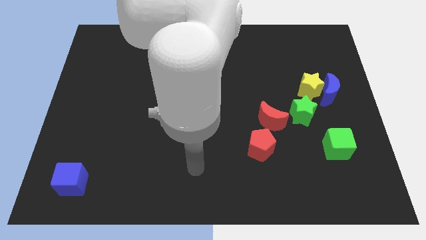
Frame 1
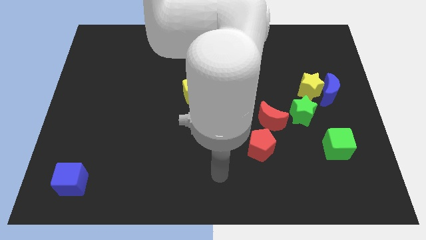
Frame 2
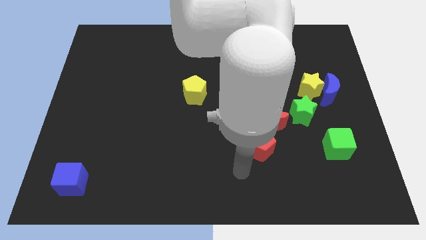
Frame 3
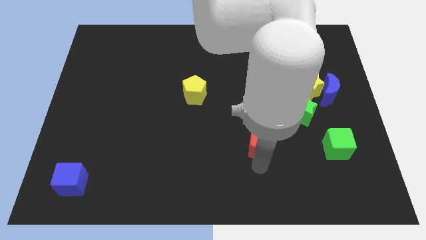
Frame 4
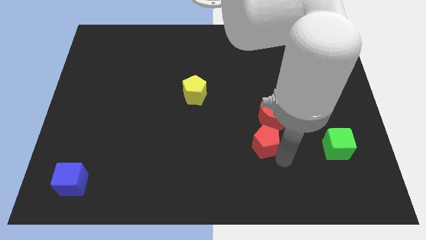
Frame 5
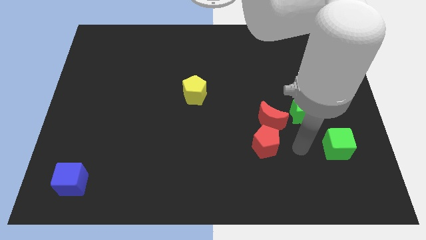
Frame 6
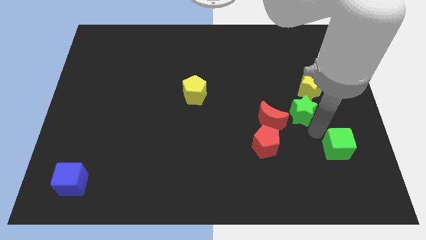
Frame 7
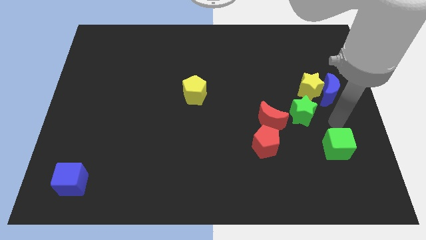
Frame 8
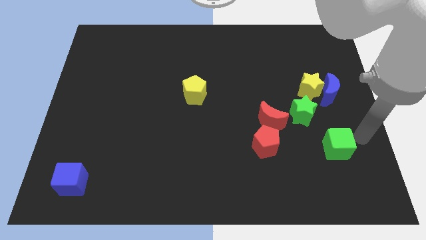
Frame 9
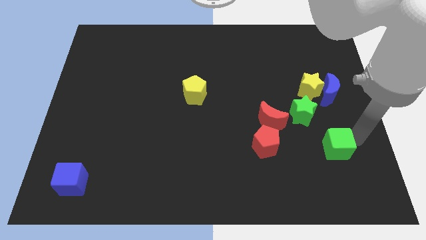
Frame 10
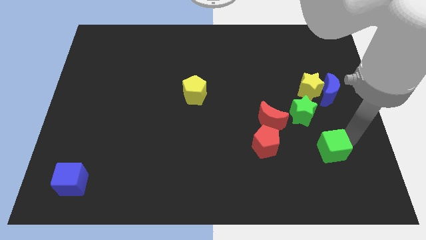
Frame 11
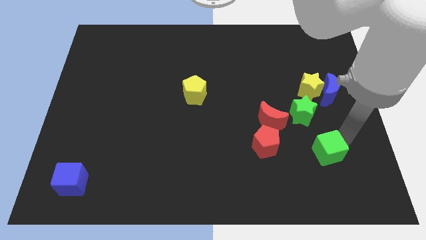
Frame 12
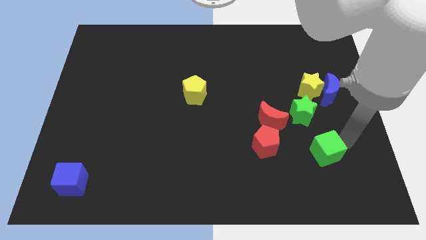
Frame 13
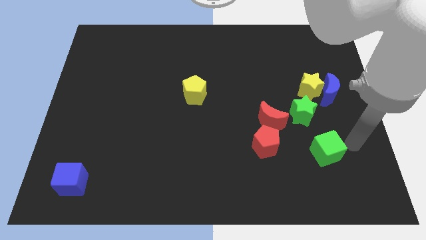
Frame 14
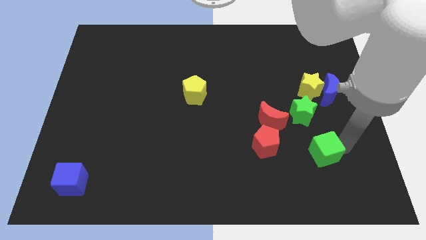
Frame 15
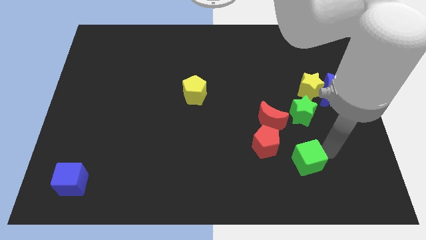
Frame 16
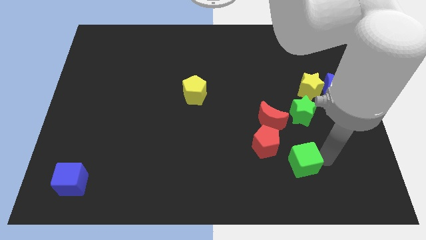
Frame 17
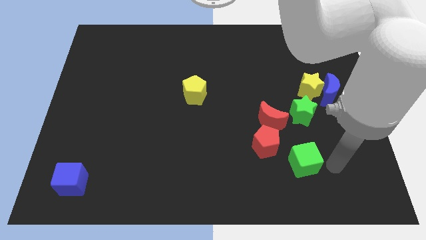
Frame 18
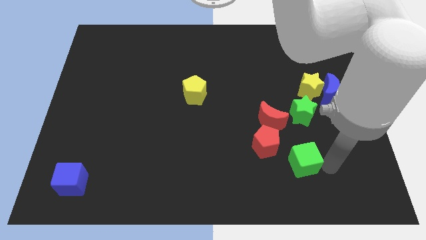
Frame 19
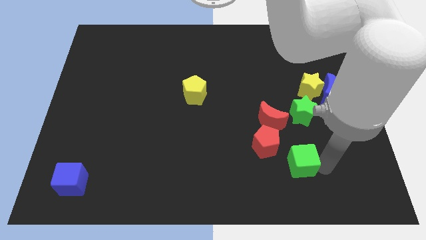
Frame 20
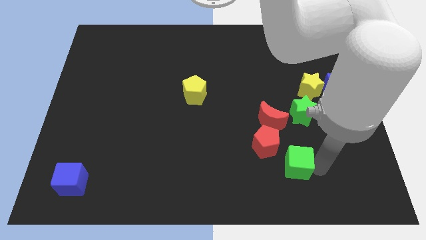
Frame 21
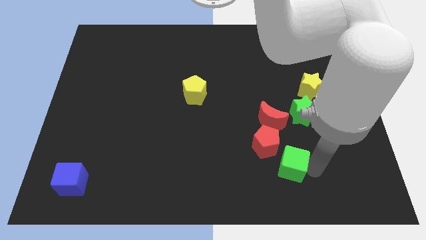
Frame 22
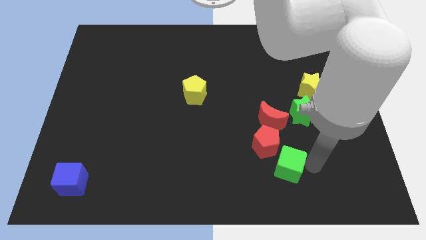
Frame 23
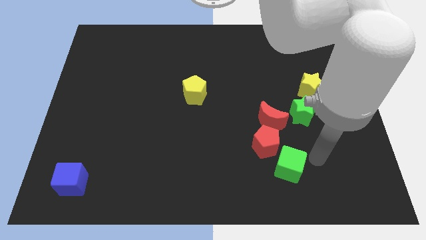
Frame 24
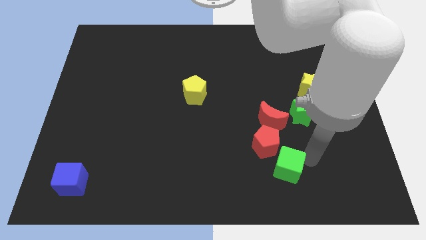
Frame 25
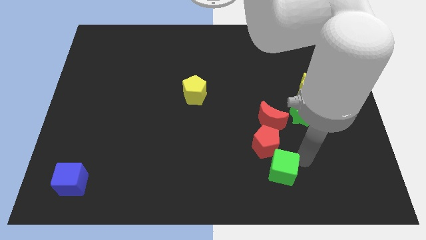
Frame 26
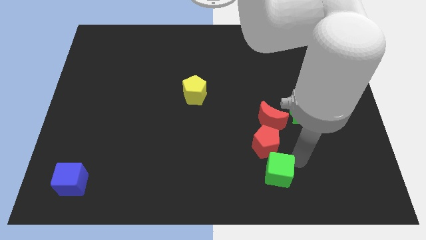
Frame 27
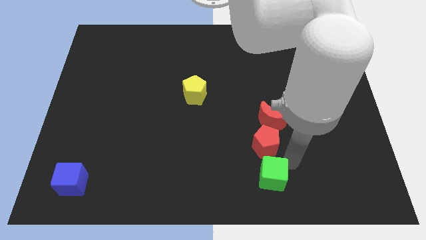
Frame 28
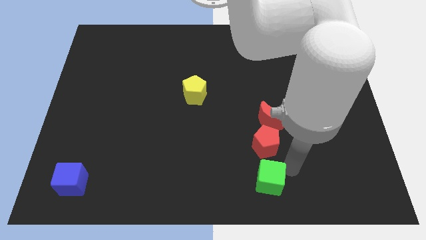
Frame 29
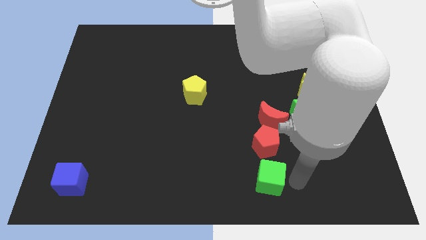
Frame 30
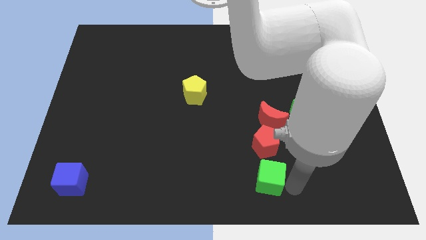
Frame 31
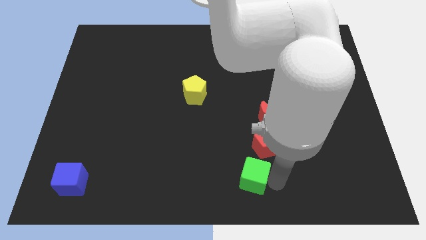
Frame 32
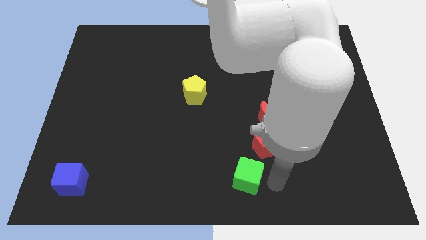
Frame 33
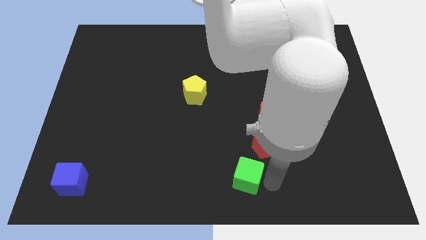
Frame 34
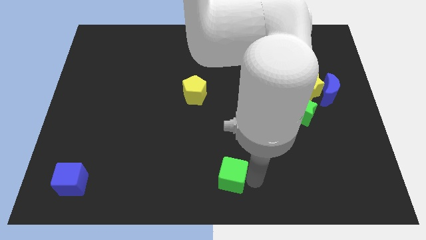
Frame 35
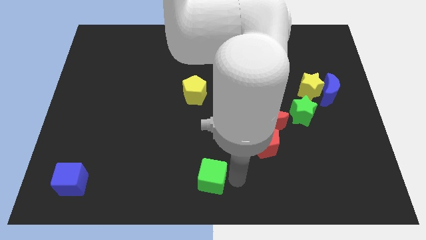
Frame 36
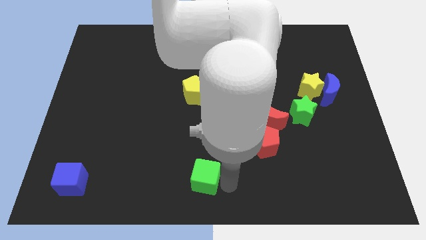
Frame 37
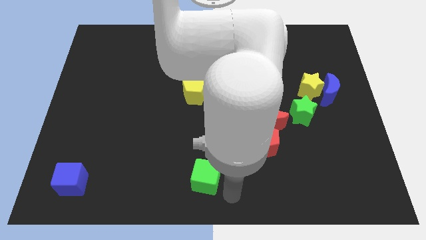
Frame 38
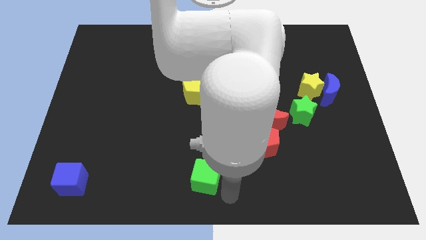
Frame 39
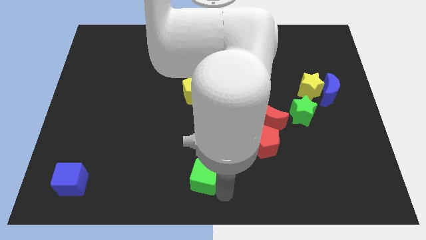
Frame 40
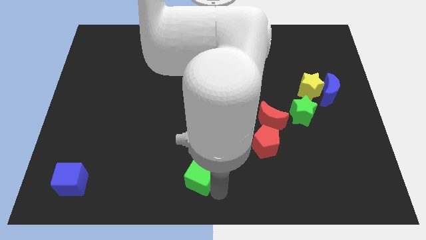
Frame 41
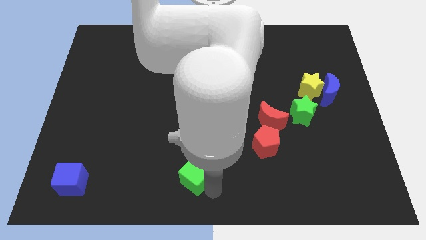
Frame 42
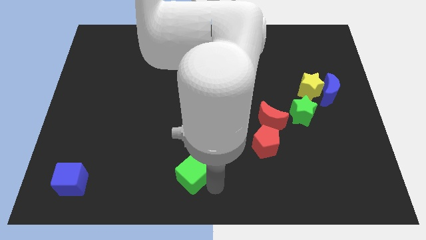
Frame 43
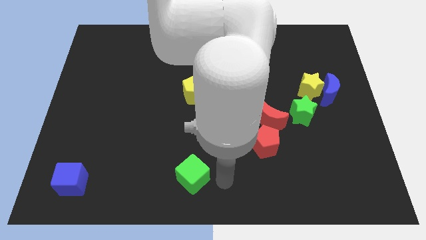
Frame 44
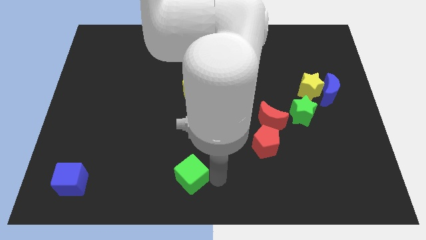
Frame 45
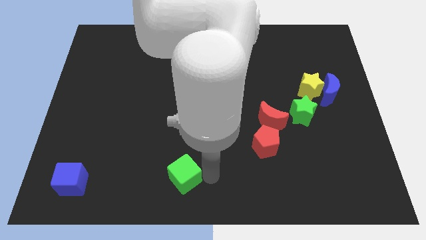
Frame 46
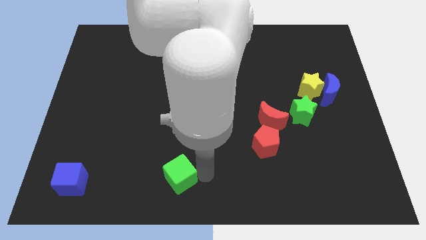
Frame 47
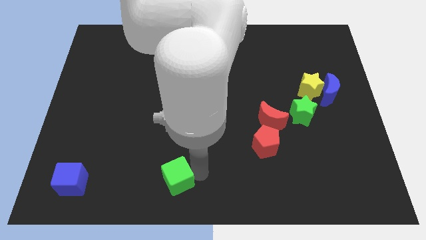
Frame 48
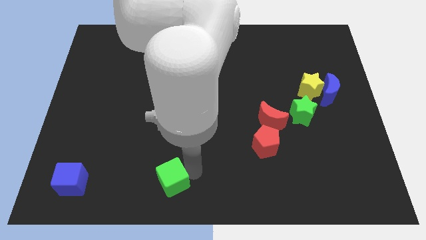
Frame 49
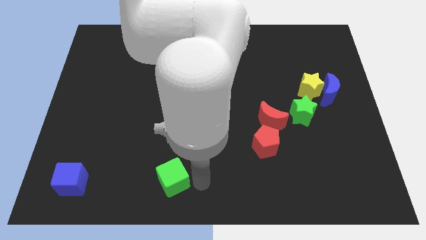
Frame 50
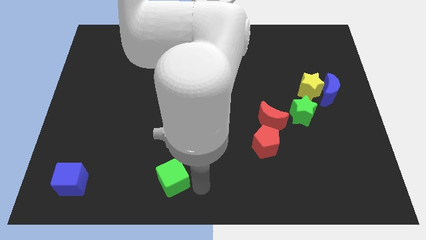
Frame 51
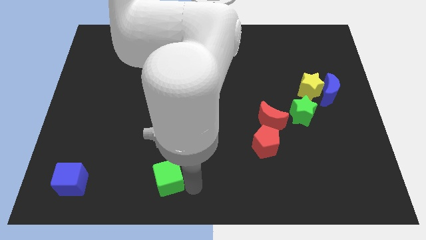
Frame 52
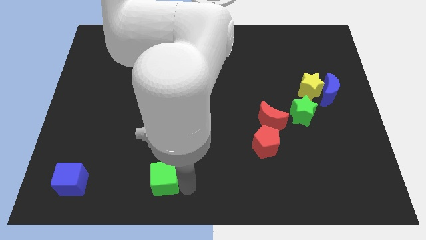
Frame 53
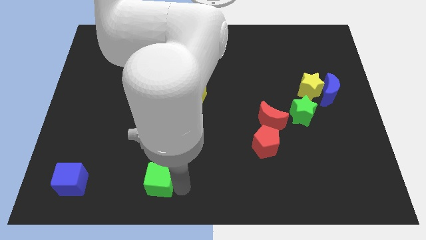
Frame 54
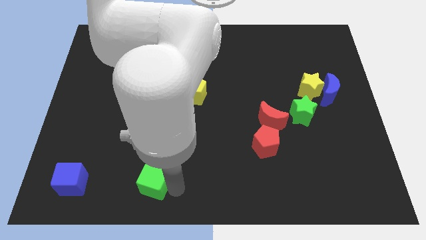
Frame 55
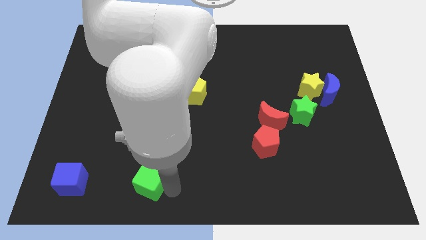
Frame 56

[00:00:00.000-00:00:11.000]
put the green cube to the right of the blue cube

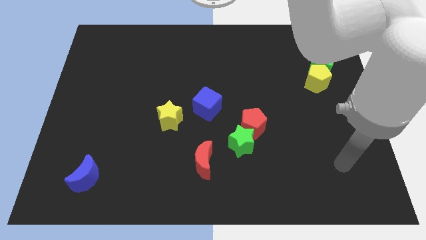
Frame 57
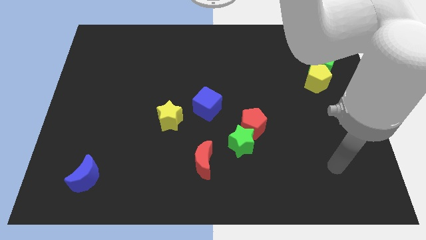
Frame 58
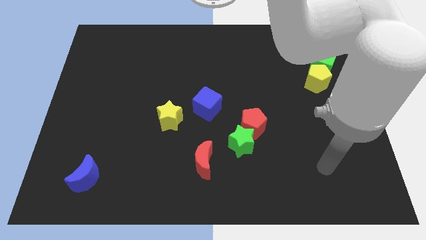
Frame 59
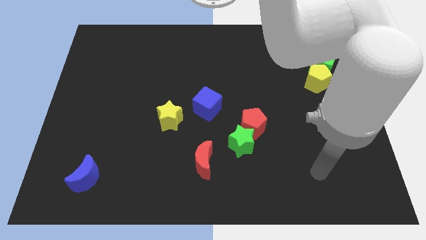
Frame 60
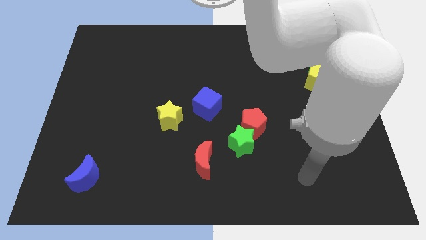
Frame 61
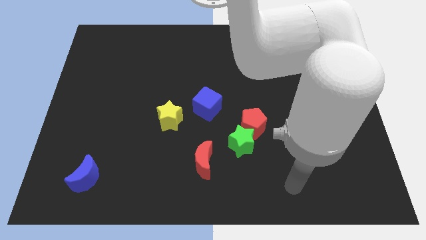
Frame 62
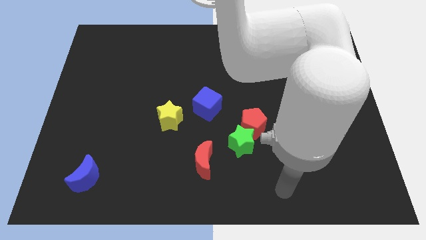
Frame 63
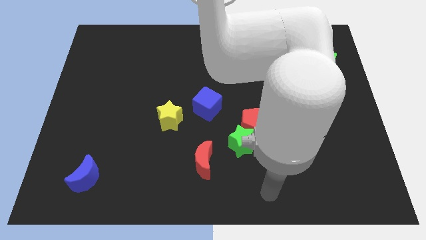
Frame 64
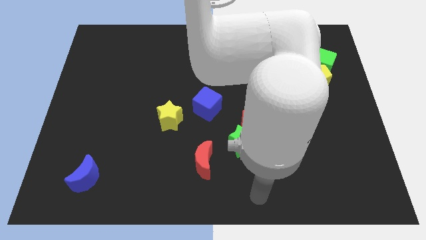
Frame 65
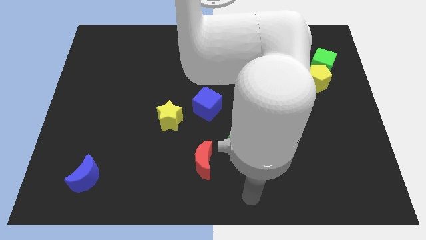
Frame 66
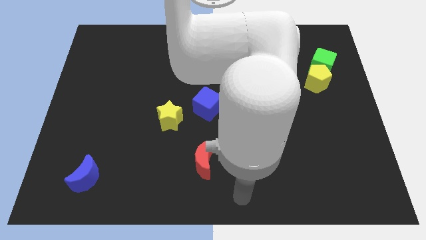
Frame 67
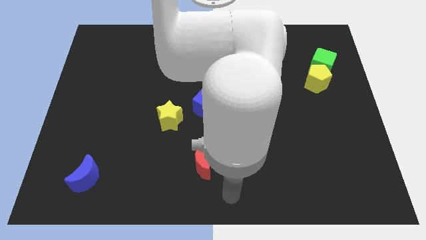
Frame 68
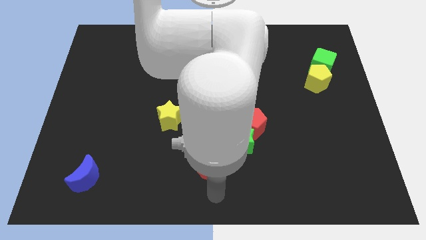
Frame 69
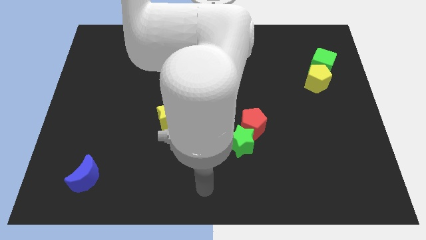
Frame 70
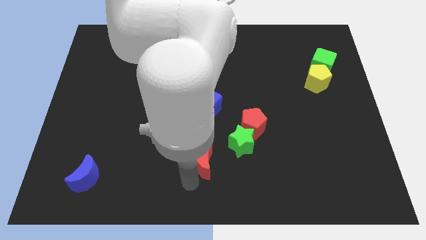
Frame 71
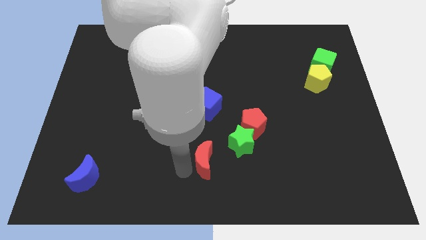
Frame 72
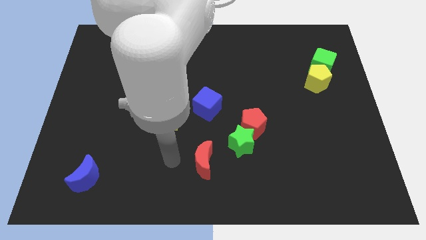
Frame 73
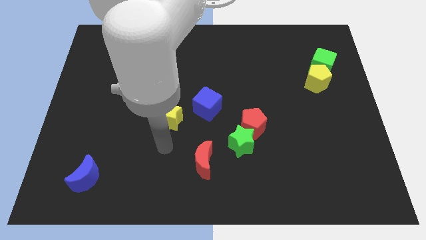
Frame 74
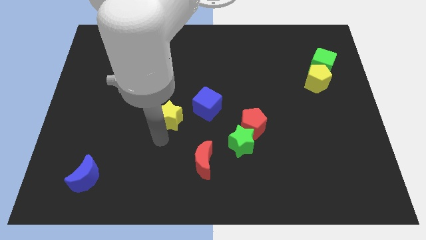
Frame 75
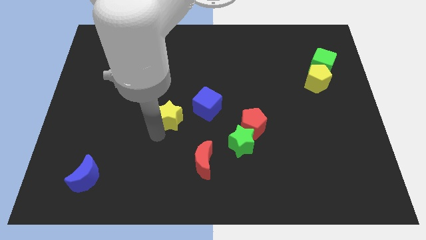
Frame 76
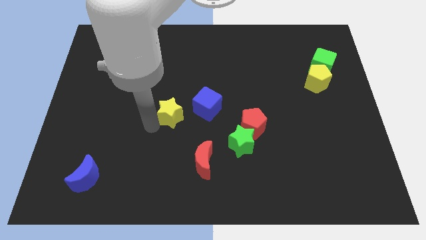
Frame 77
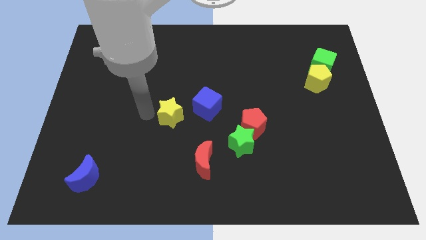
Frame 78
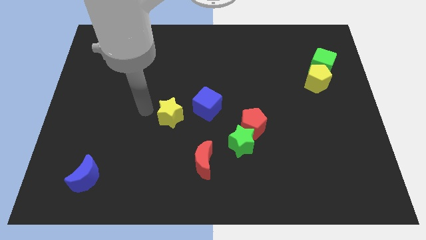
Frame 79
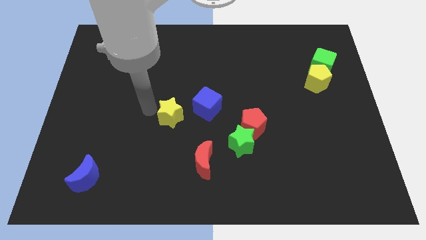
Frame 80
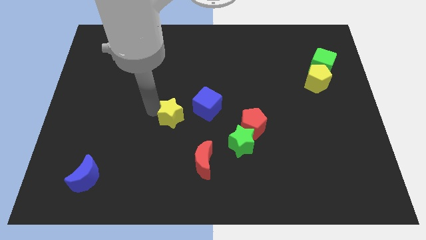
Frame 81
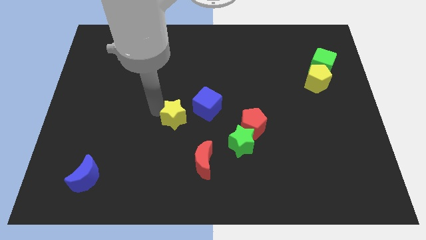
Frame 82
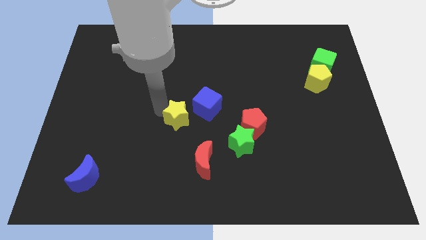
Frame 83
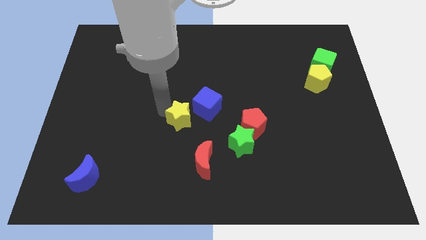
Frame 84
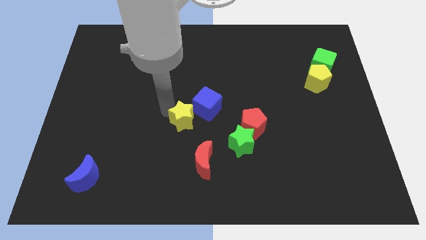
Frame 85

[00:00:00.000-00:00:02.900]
put the yellow star to the left of the red pentagon
